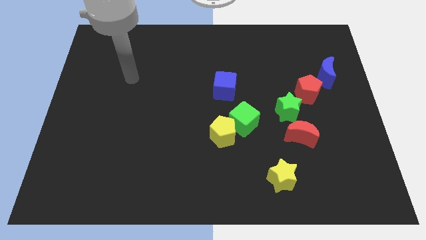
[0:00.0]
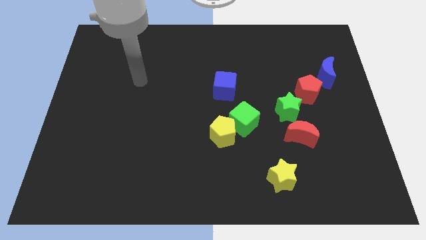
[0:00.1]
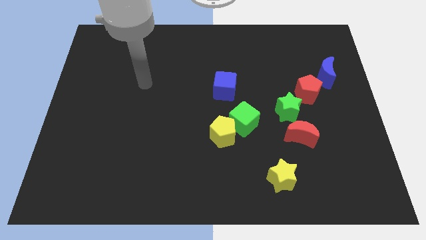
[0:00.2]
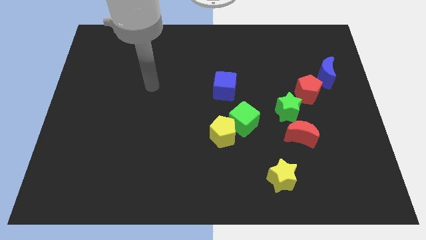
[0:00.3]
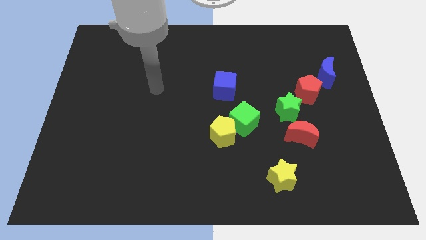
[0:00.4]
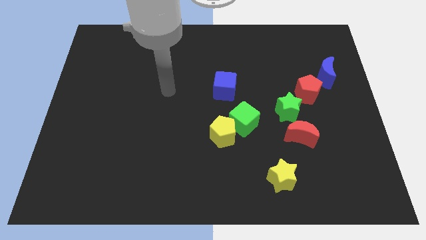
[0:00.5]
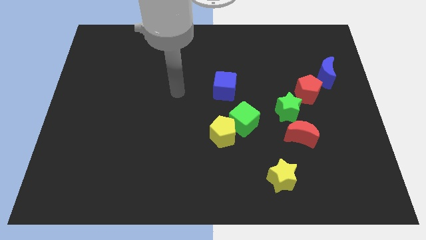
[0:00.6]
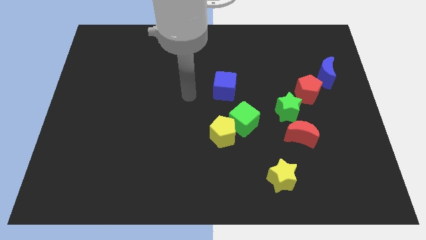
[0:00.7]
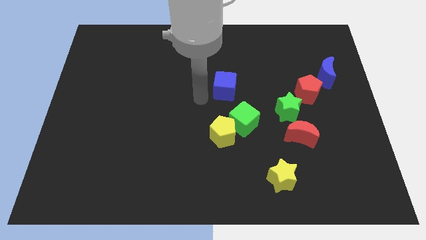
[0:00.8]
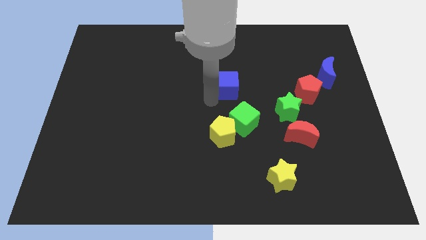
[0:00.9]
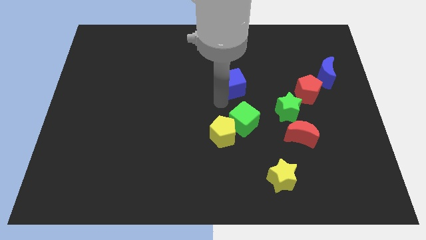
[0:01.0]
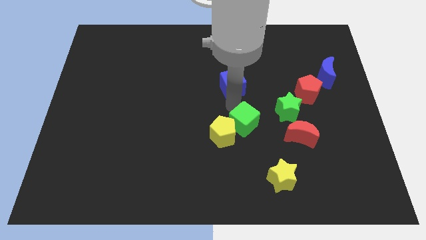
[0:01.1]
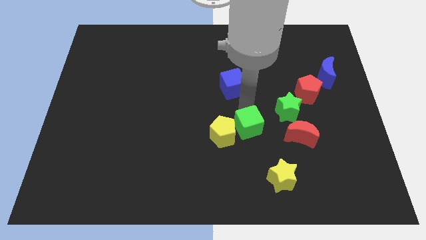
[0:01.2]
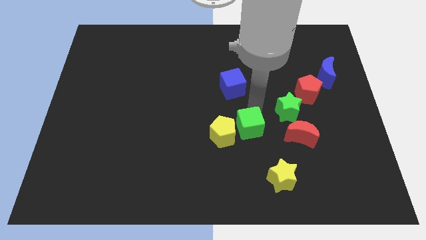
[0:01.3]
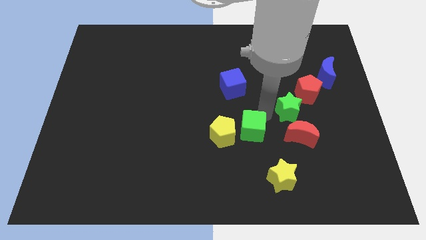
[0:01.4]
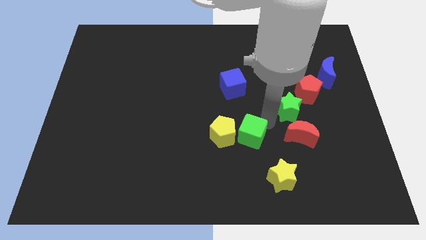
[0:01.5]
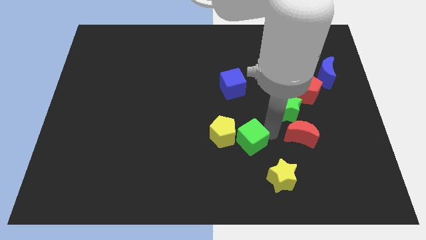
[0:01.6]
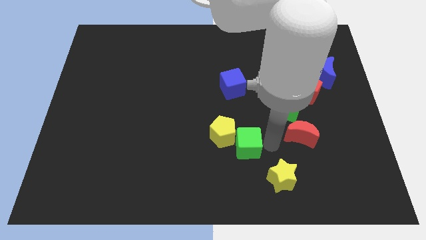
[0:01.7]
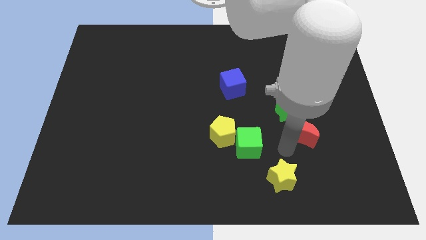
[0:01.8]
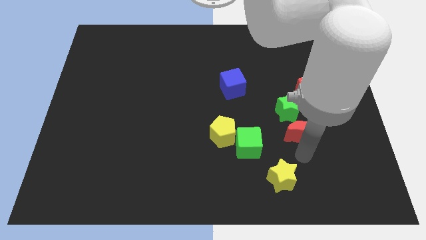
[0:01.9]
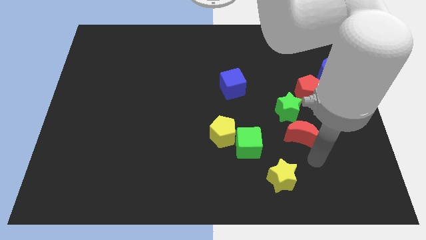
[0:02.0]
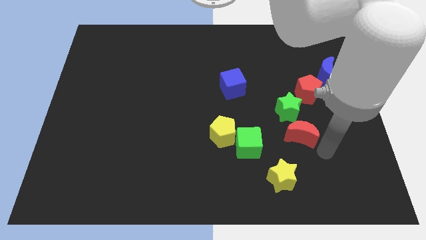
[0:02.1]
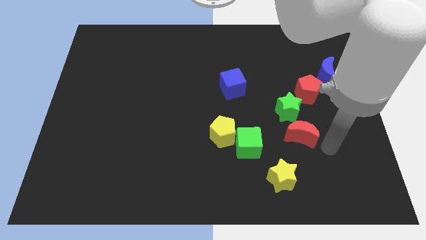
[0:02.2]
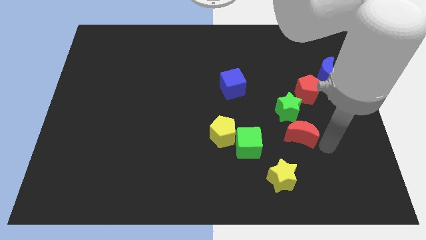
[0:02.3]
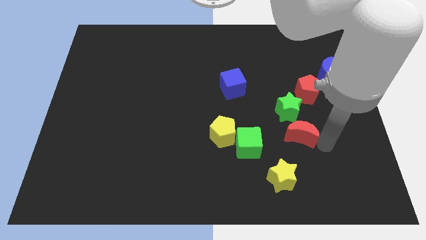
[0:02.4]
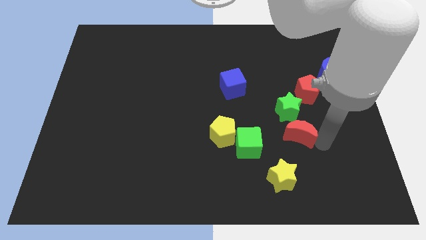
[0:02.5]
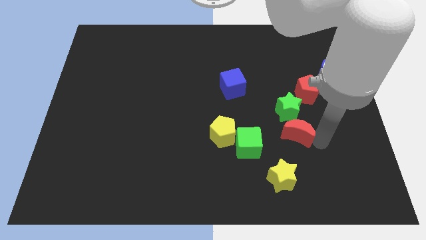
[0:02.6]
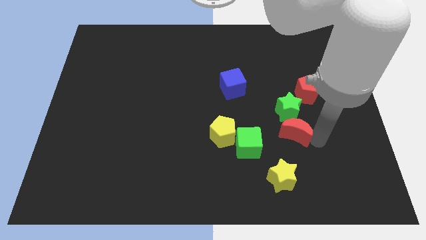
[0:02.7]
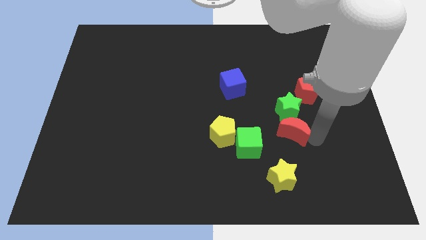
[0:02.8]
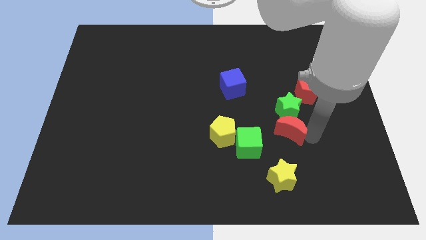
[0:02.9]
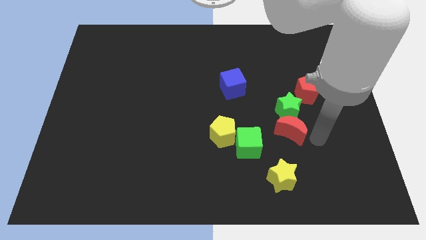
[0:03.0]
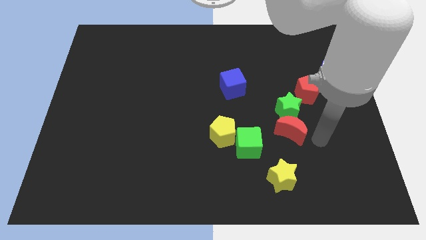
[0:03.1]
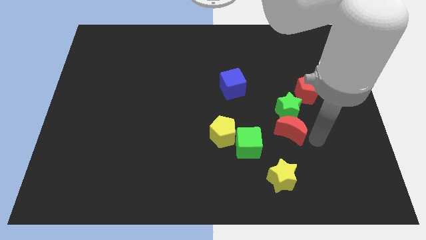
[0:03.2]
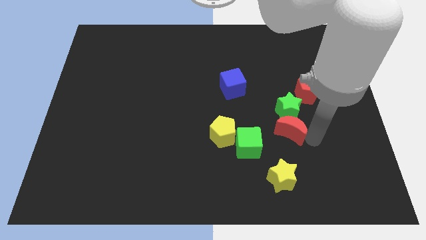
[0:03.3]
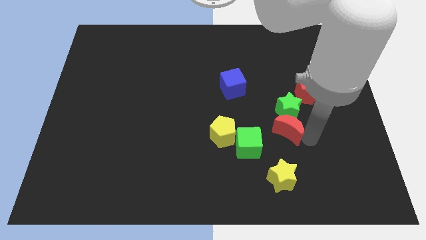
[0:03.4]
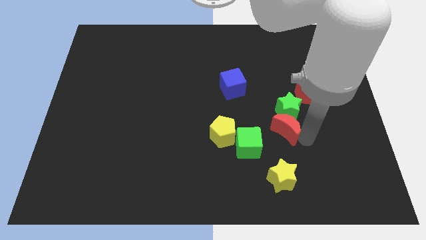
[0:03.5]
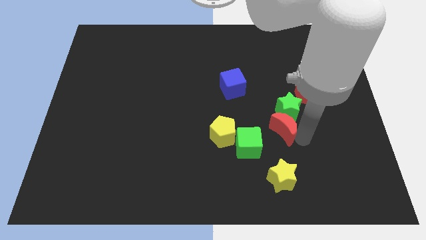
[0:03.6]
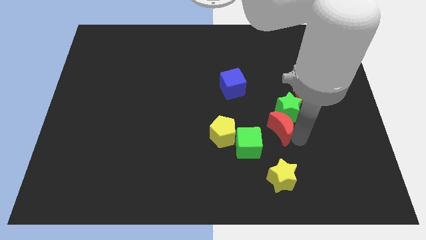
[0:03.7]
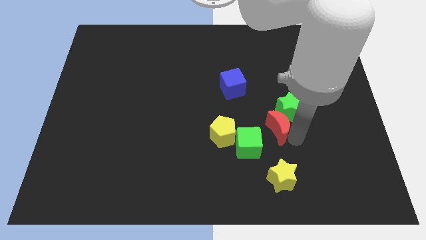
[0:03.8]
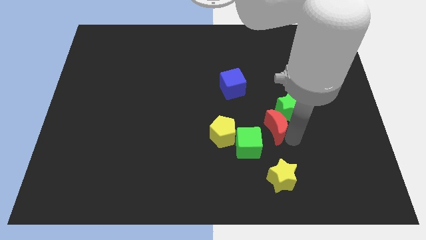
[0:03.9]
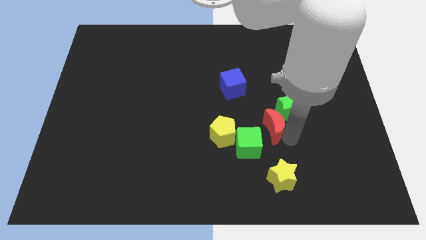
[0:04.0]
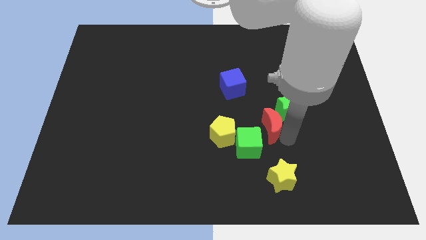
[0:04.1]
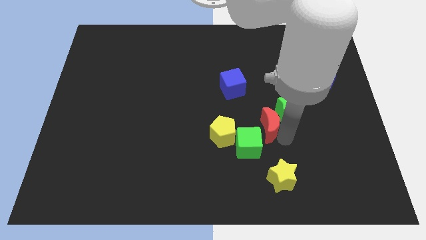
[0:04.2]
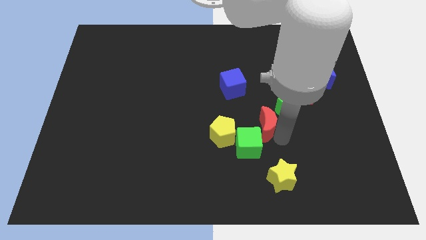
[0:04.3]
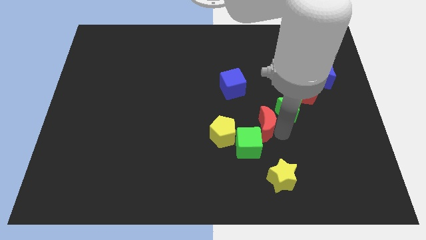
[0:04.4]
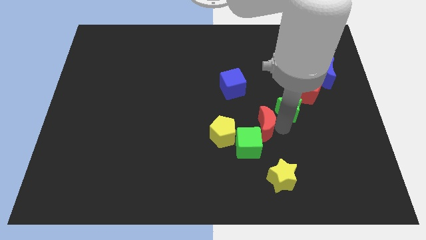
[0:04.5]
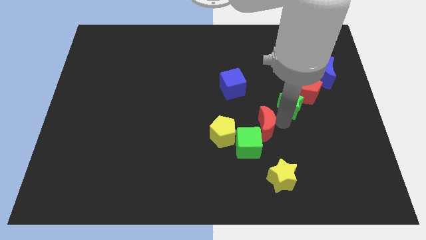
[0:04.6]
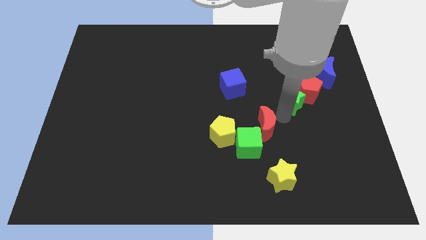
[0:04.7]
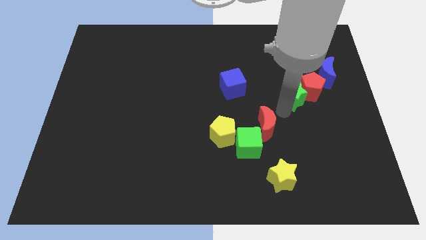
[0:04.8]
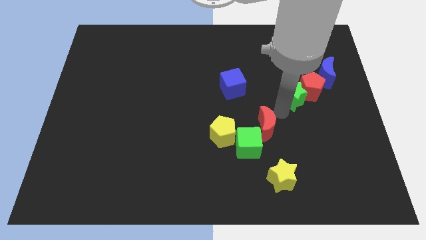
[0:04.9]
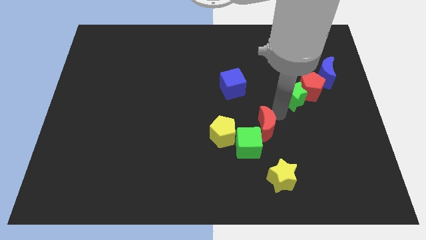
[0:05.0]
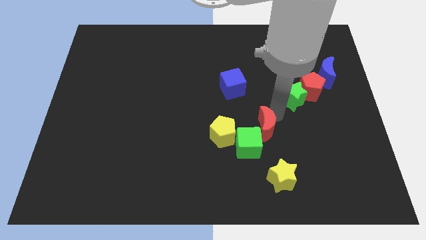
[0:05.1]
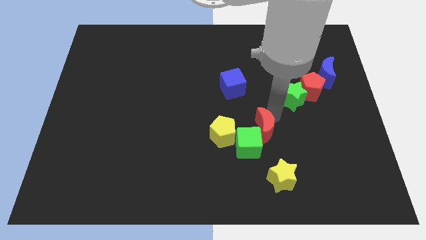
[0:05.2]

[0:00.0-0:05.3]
move the red moon close to the green cube

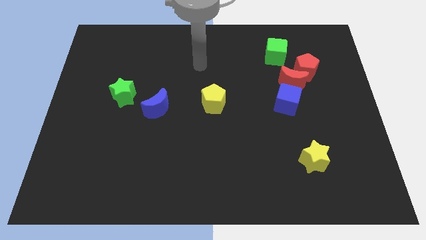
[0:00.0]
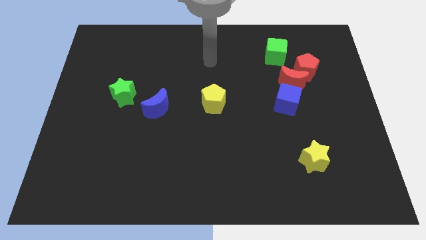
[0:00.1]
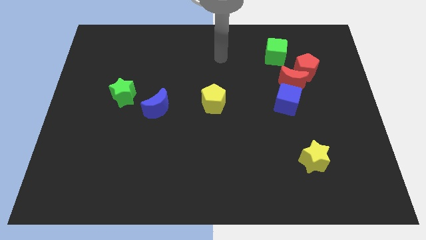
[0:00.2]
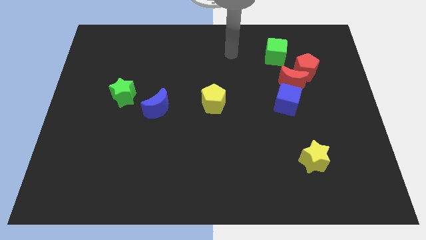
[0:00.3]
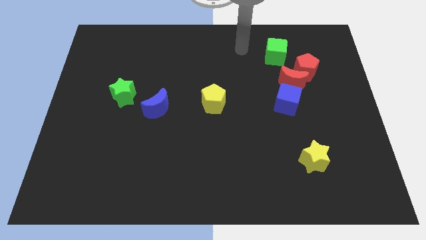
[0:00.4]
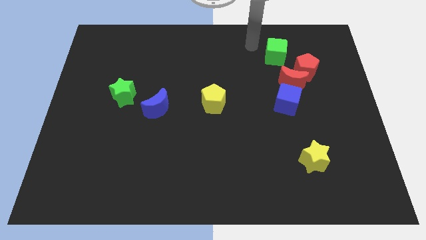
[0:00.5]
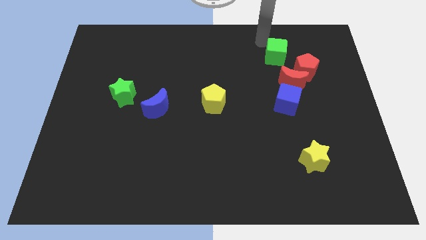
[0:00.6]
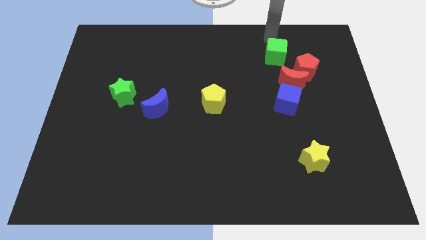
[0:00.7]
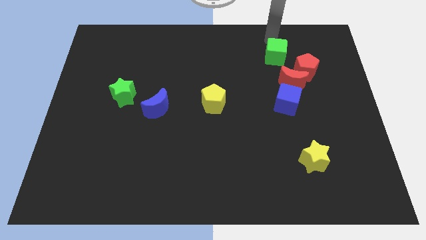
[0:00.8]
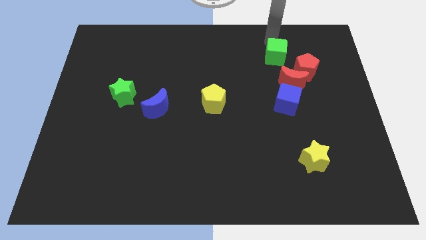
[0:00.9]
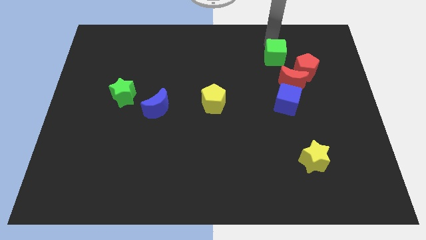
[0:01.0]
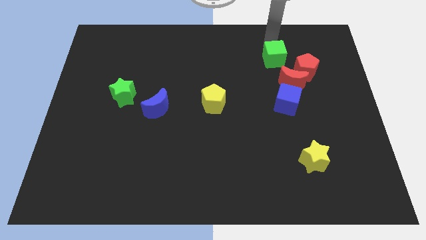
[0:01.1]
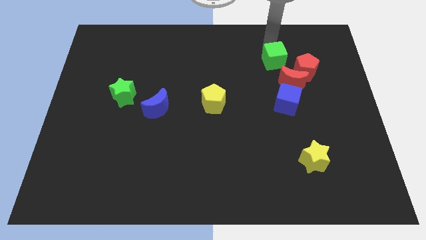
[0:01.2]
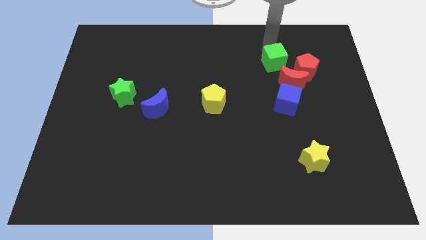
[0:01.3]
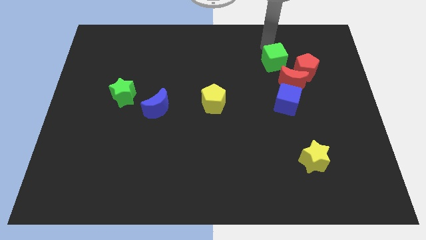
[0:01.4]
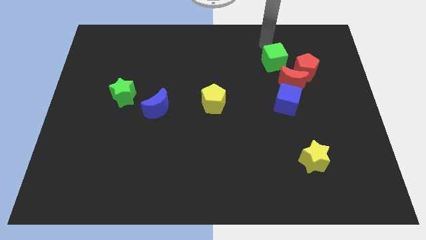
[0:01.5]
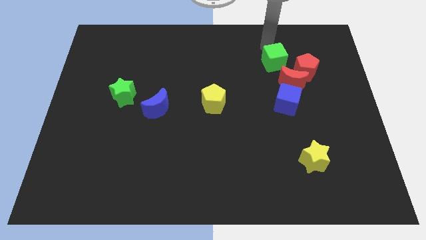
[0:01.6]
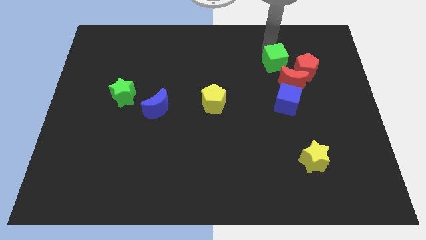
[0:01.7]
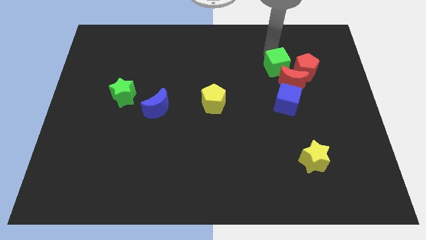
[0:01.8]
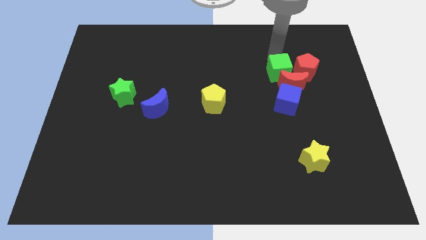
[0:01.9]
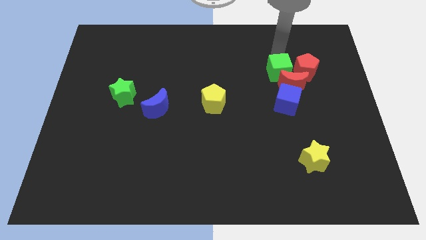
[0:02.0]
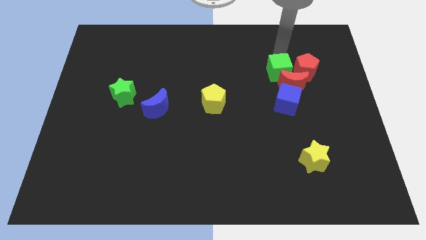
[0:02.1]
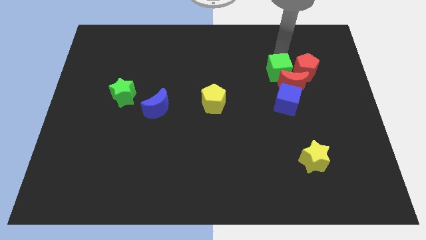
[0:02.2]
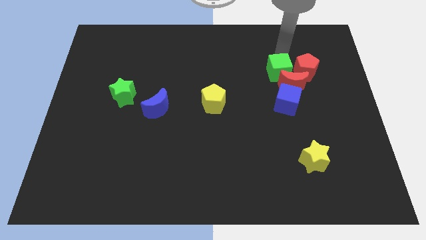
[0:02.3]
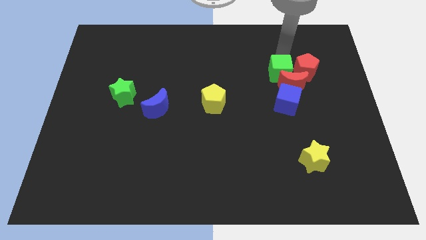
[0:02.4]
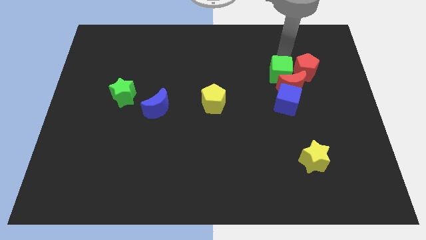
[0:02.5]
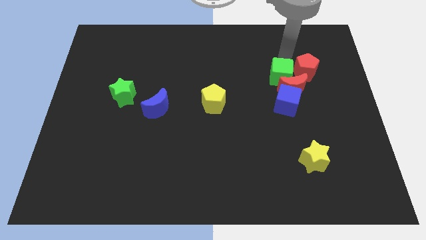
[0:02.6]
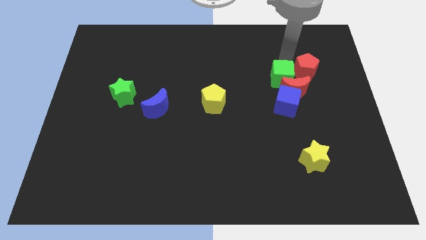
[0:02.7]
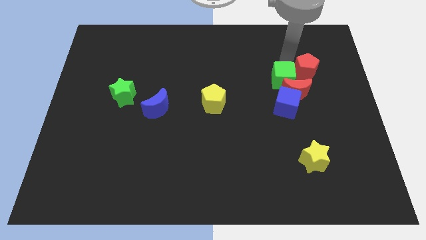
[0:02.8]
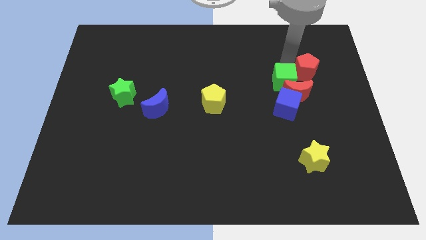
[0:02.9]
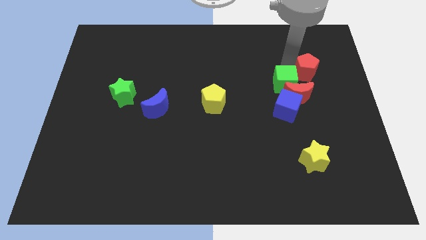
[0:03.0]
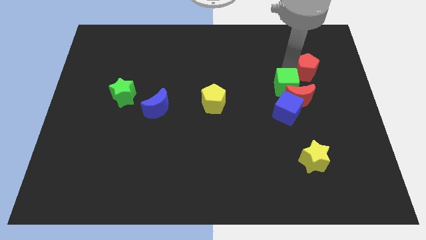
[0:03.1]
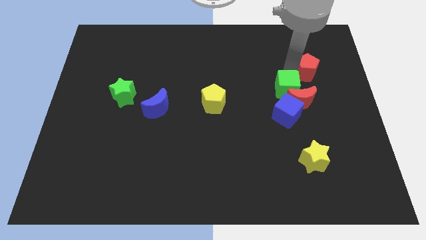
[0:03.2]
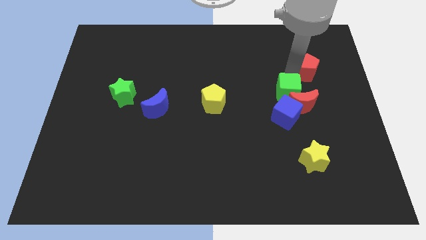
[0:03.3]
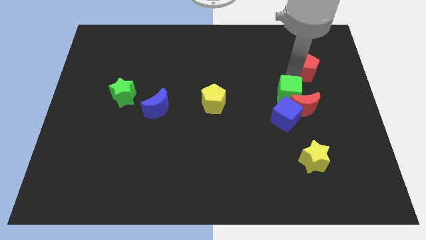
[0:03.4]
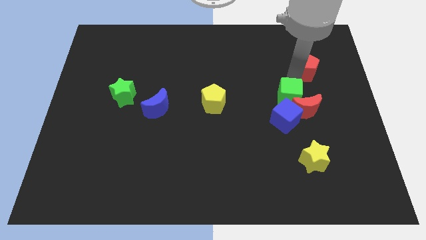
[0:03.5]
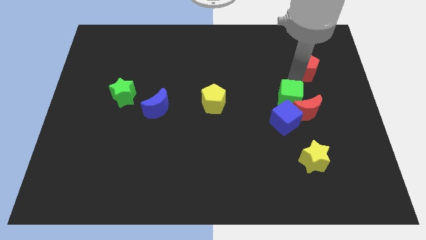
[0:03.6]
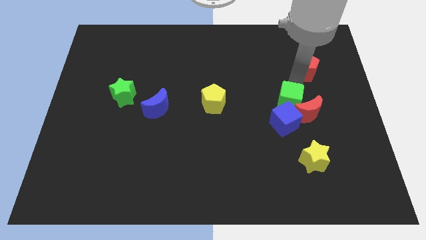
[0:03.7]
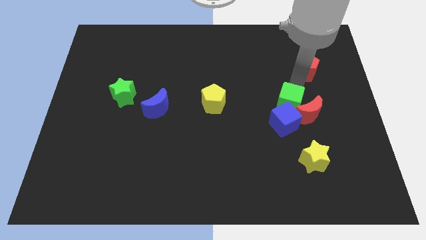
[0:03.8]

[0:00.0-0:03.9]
move the green cube to the blue cube
